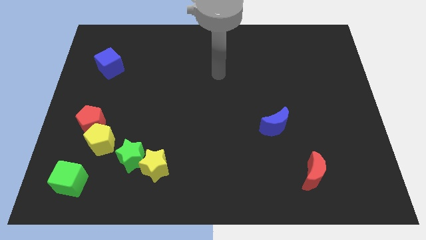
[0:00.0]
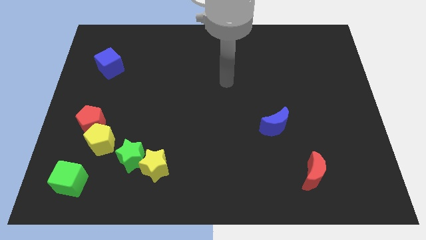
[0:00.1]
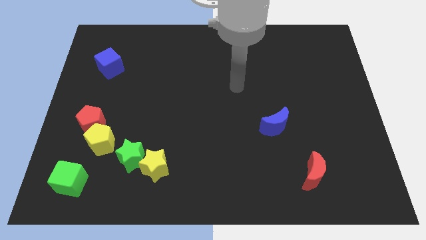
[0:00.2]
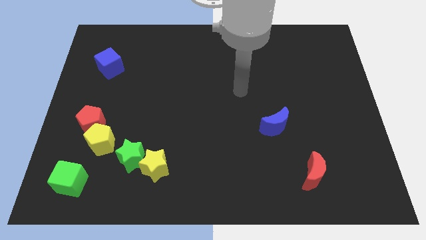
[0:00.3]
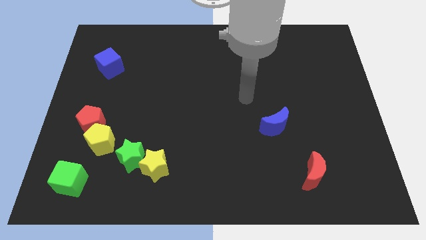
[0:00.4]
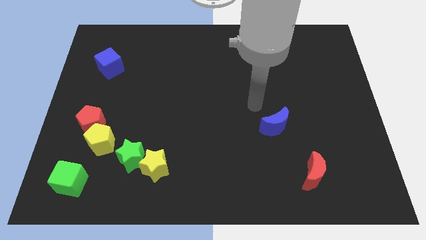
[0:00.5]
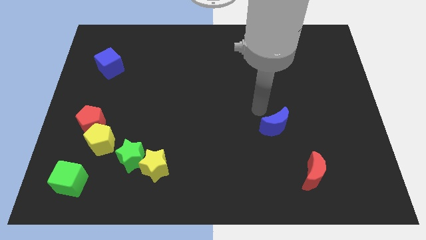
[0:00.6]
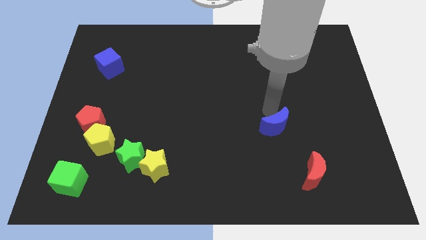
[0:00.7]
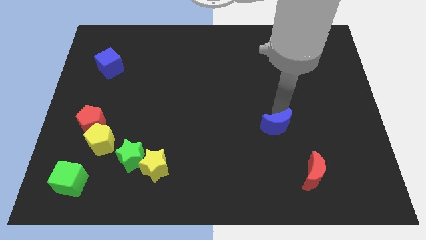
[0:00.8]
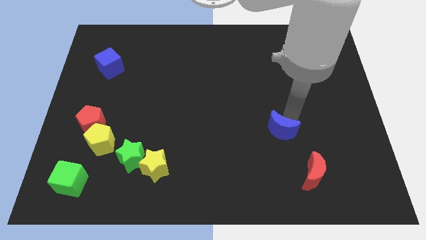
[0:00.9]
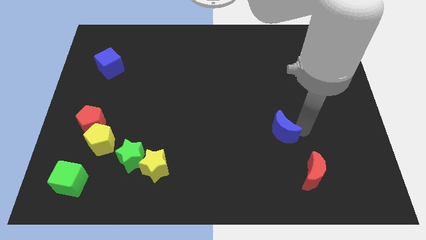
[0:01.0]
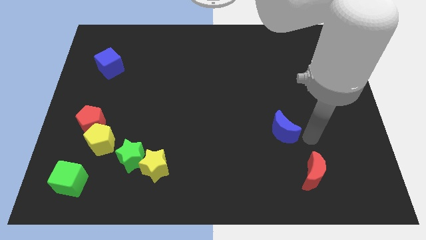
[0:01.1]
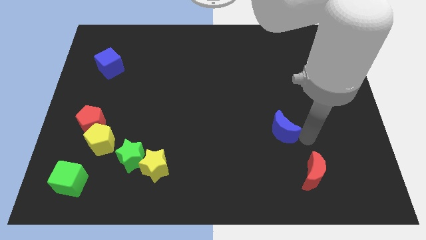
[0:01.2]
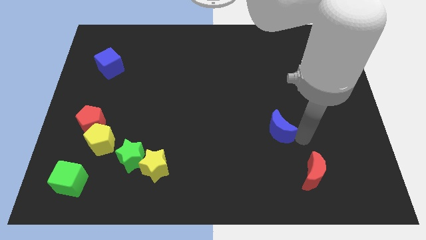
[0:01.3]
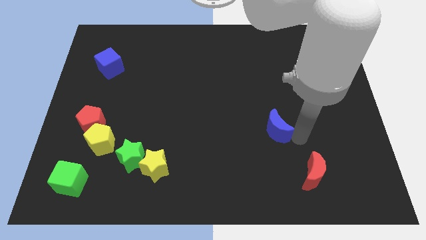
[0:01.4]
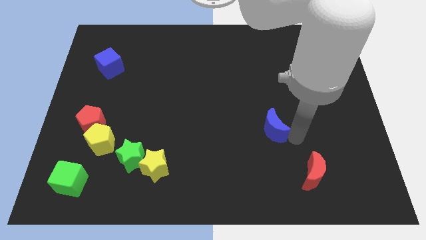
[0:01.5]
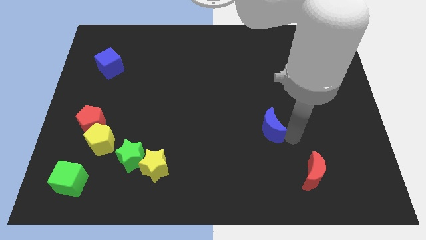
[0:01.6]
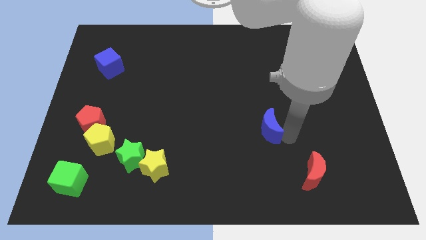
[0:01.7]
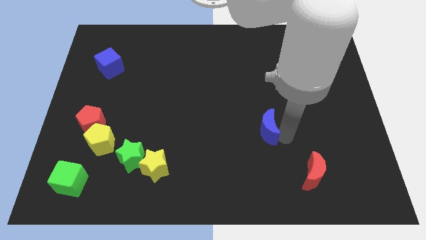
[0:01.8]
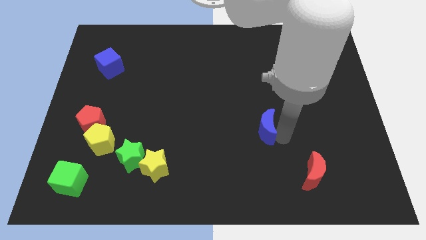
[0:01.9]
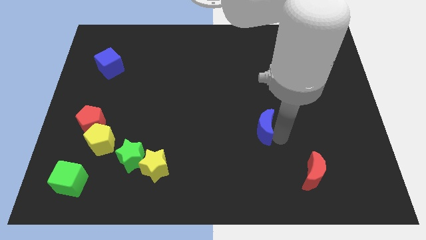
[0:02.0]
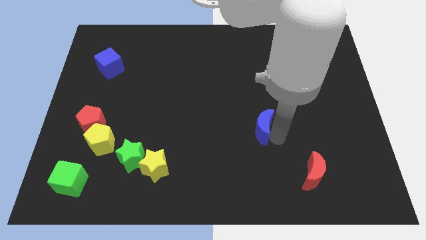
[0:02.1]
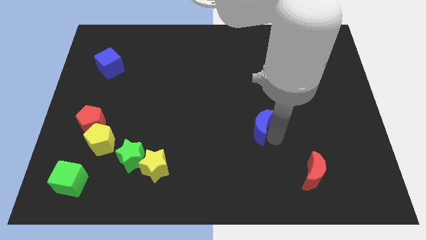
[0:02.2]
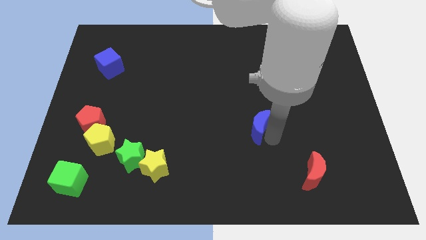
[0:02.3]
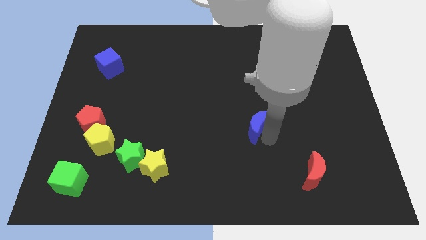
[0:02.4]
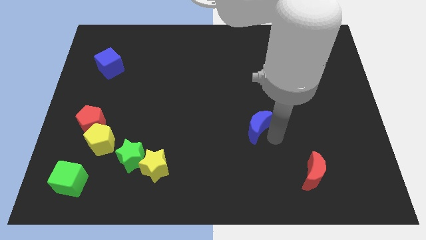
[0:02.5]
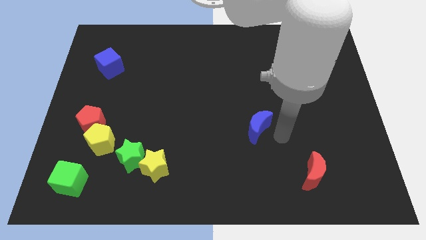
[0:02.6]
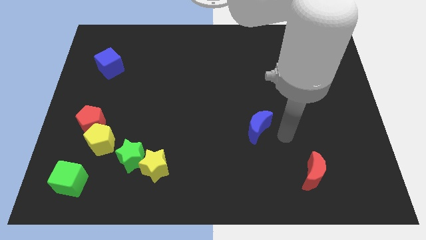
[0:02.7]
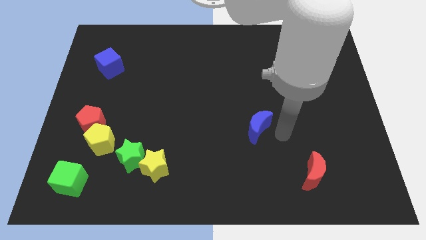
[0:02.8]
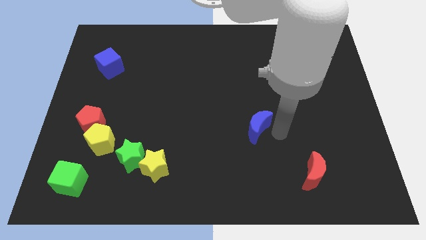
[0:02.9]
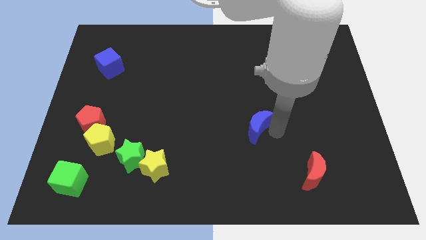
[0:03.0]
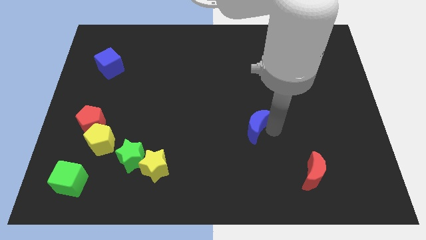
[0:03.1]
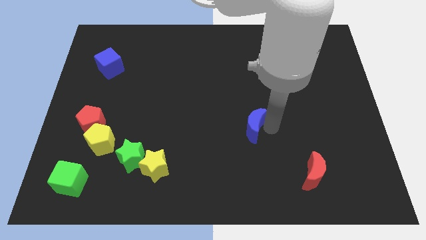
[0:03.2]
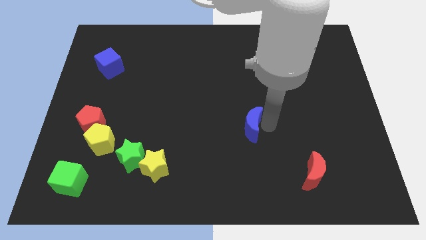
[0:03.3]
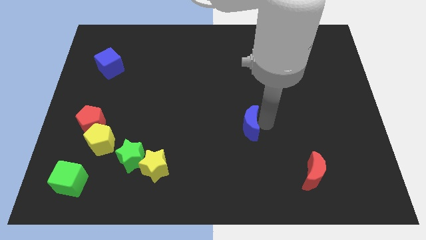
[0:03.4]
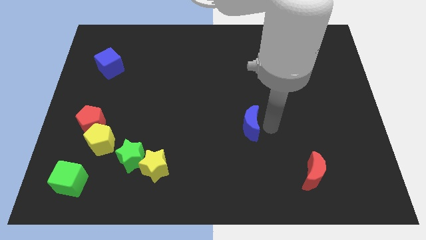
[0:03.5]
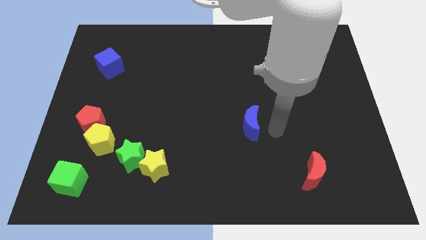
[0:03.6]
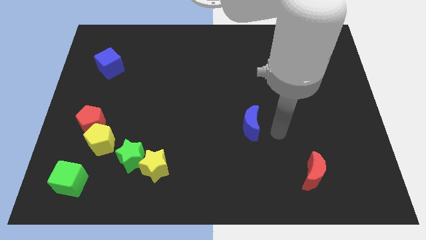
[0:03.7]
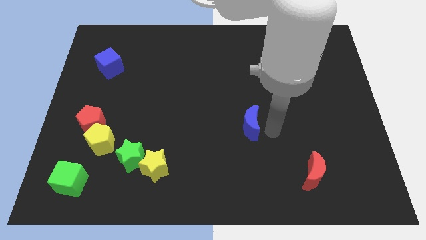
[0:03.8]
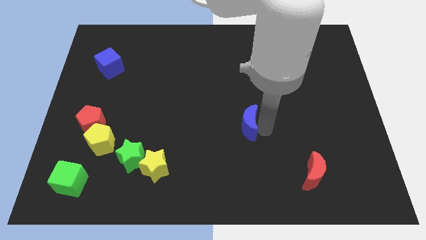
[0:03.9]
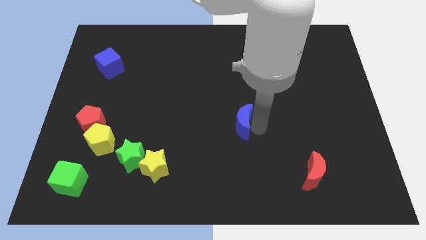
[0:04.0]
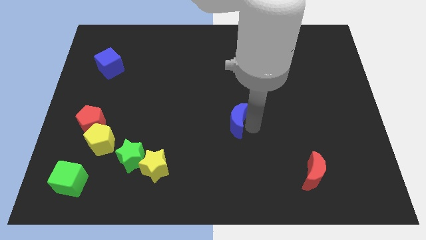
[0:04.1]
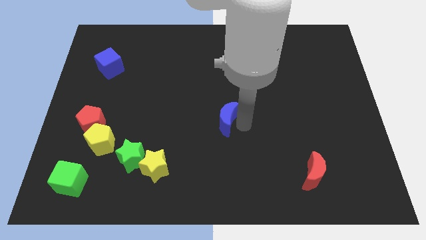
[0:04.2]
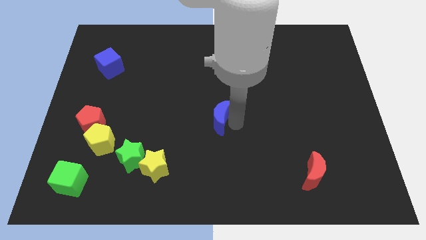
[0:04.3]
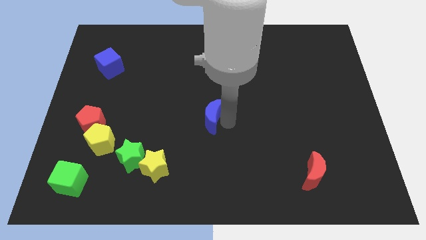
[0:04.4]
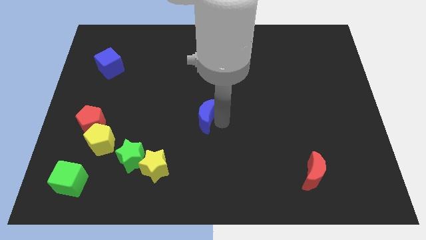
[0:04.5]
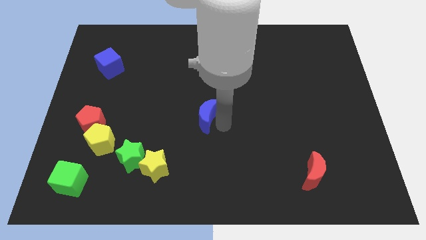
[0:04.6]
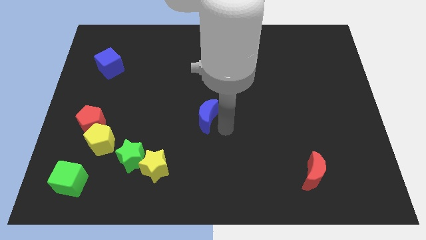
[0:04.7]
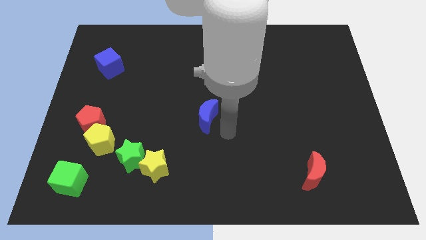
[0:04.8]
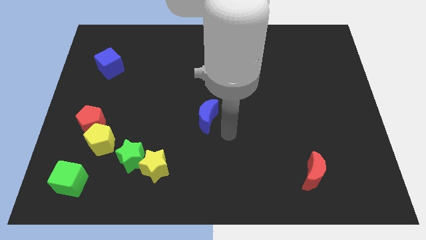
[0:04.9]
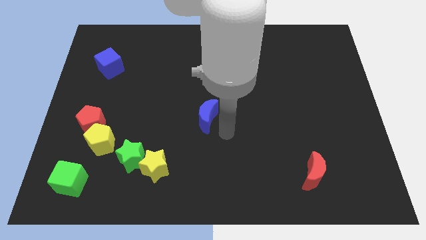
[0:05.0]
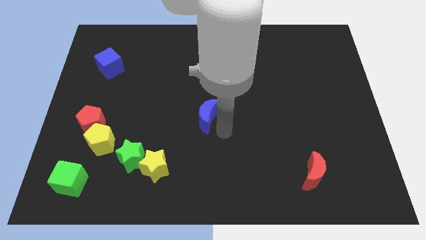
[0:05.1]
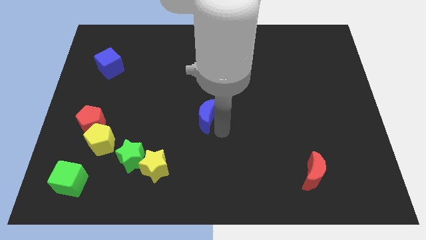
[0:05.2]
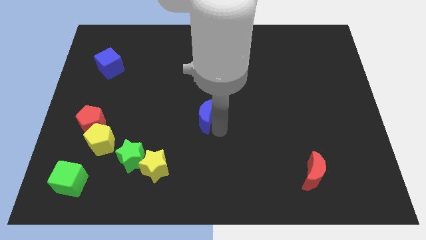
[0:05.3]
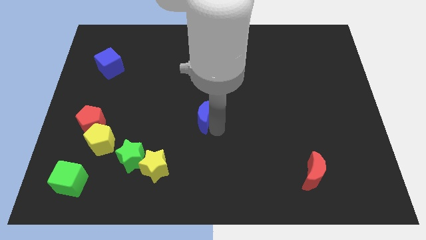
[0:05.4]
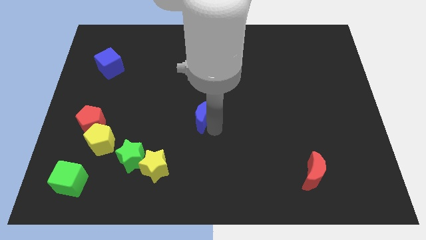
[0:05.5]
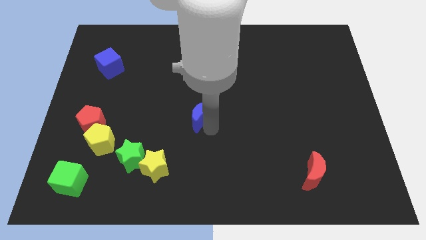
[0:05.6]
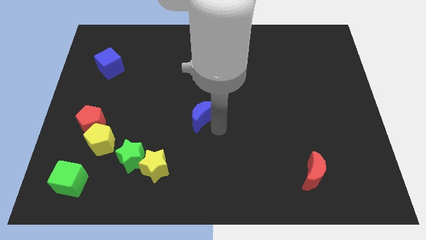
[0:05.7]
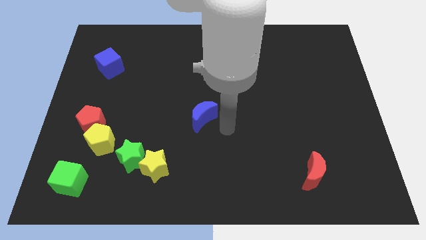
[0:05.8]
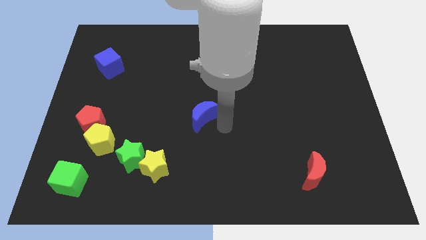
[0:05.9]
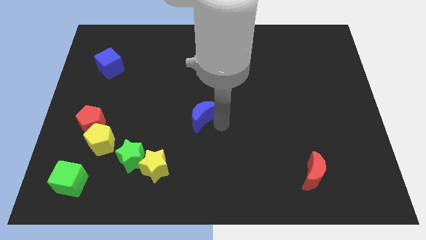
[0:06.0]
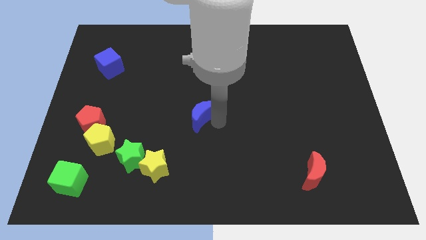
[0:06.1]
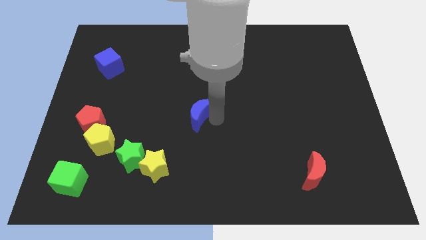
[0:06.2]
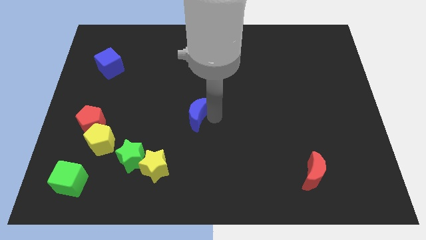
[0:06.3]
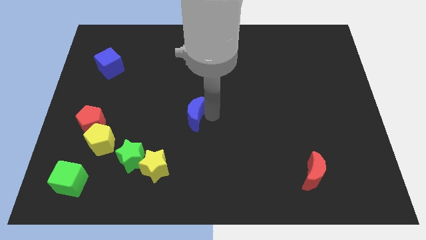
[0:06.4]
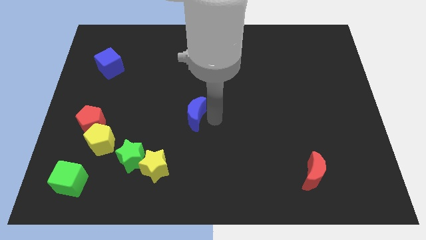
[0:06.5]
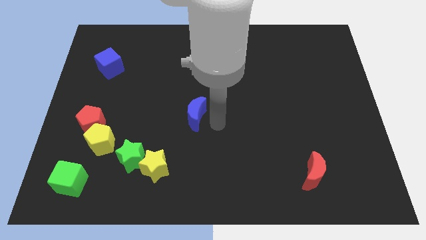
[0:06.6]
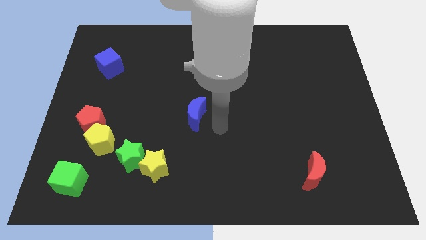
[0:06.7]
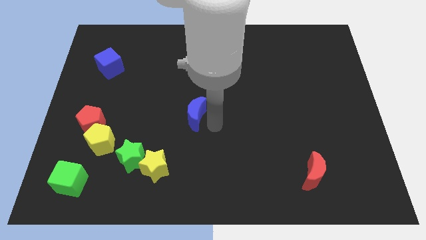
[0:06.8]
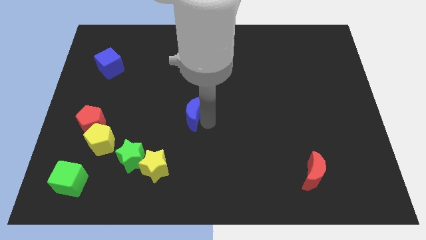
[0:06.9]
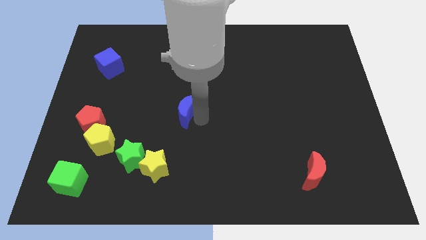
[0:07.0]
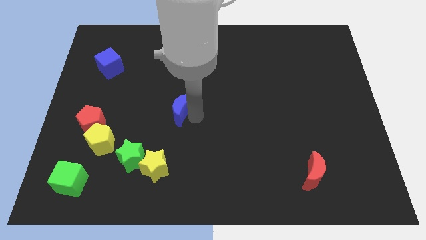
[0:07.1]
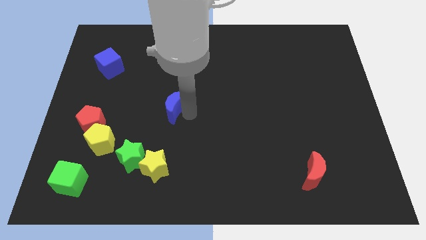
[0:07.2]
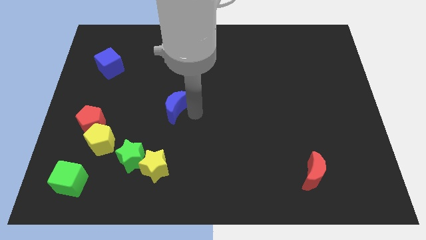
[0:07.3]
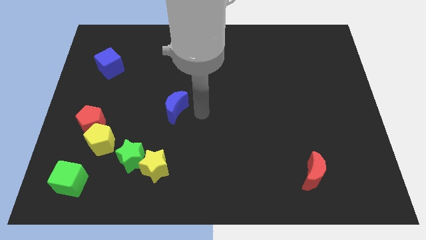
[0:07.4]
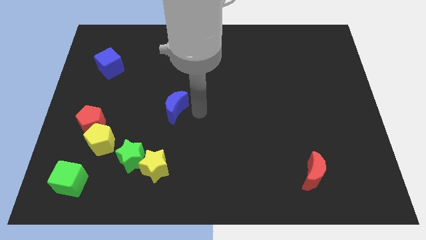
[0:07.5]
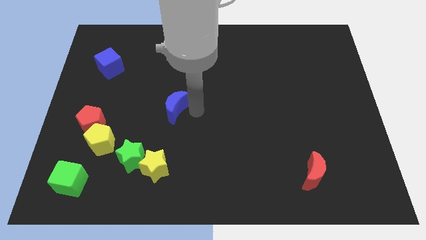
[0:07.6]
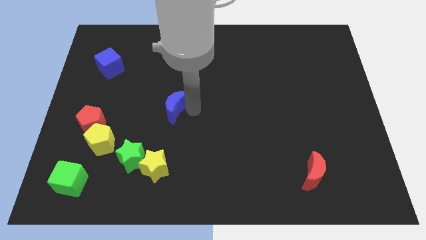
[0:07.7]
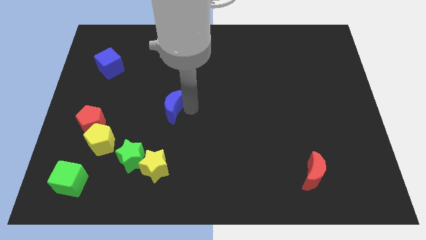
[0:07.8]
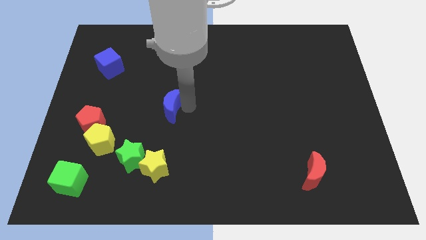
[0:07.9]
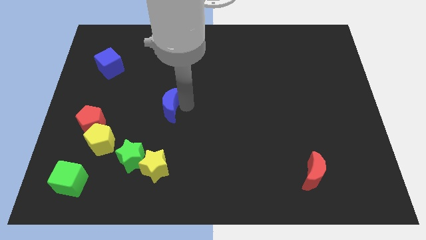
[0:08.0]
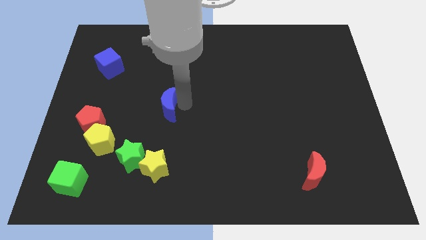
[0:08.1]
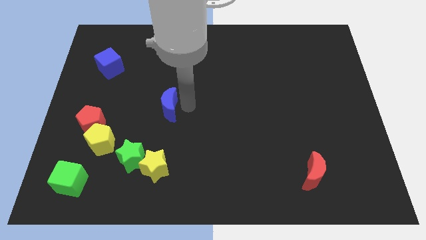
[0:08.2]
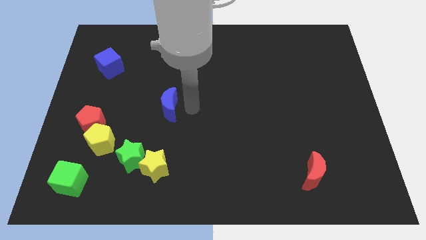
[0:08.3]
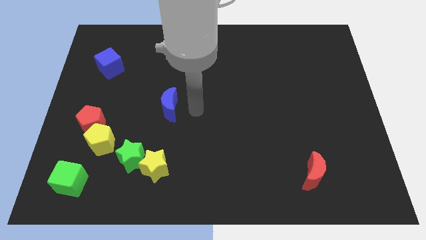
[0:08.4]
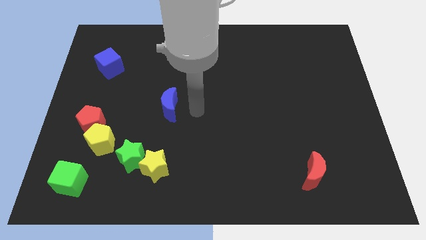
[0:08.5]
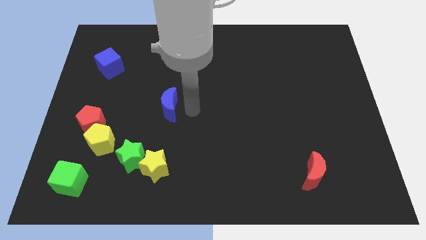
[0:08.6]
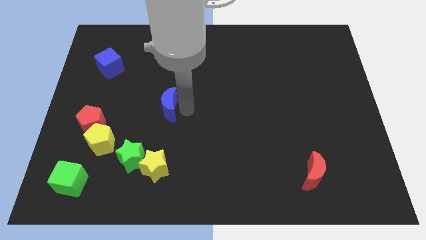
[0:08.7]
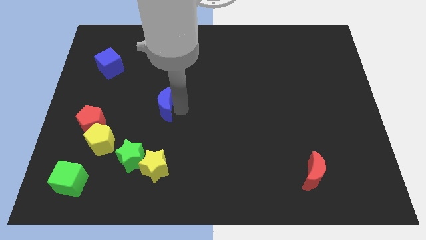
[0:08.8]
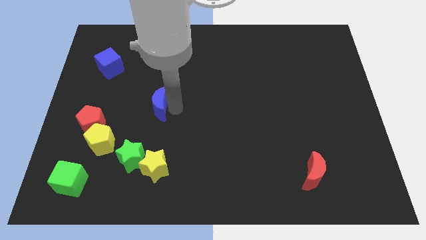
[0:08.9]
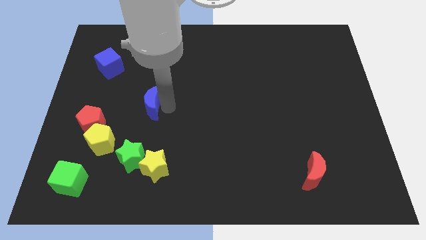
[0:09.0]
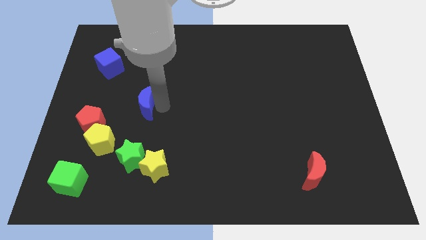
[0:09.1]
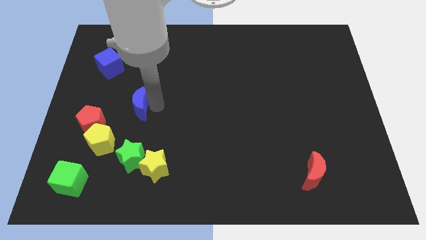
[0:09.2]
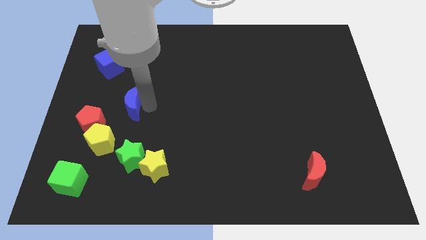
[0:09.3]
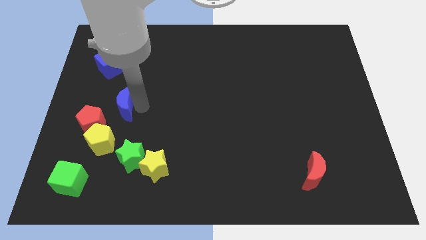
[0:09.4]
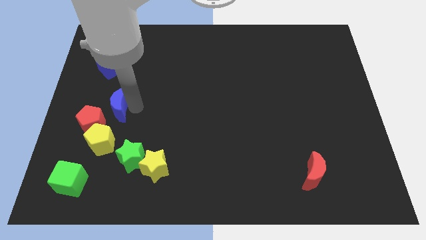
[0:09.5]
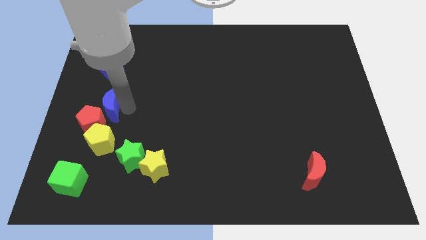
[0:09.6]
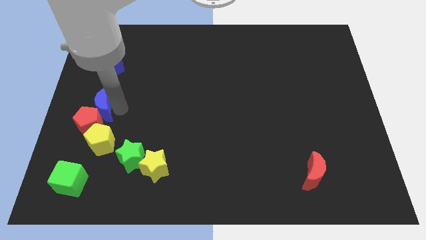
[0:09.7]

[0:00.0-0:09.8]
slide the blue moon to the left side
